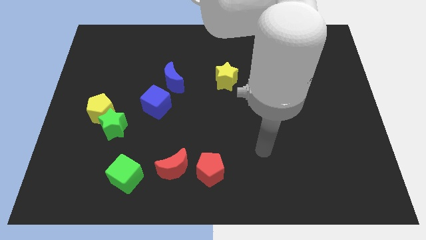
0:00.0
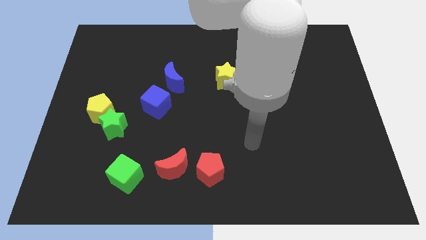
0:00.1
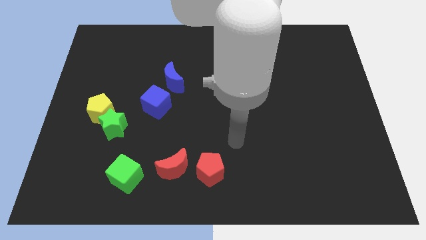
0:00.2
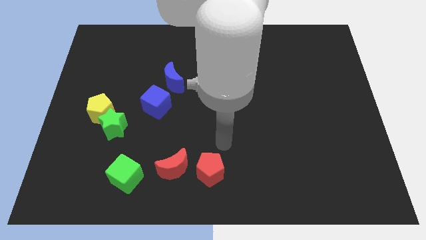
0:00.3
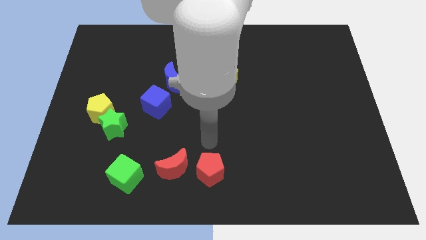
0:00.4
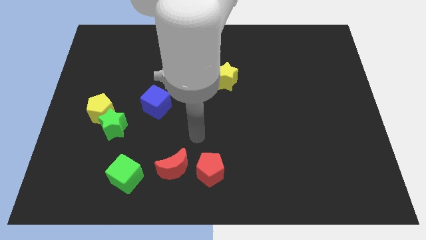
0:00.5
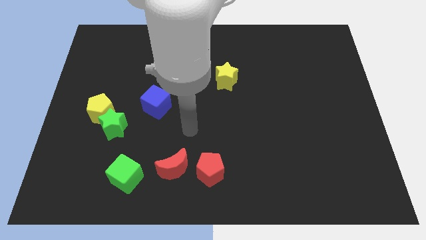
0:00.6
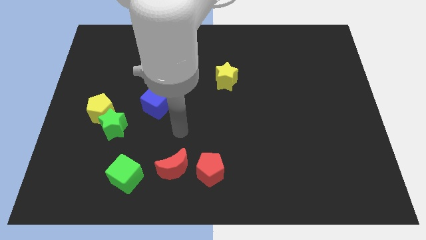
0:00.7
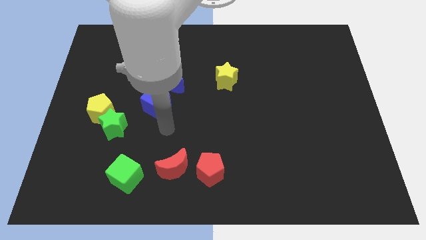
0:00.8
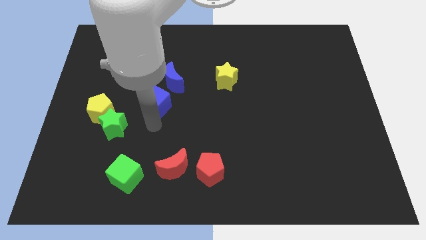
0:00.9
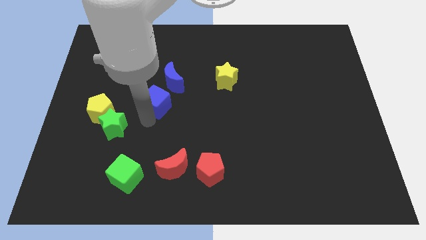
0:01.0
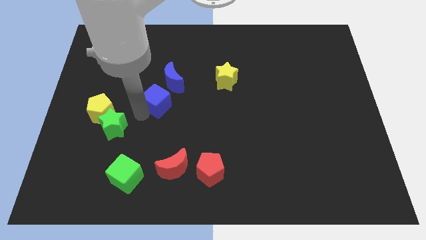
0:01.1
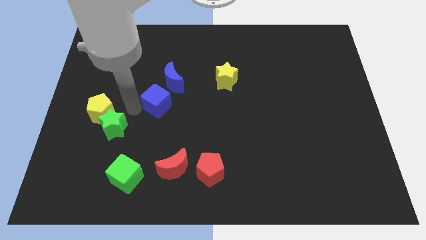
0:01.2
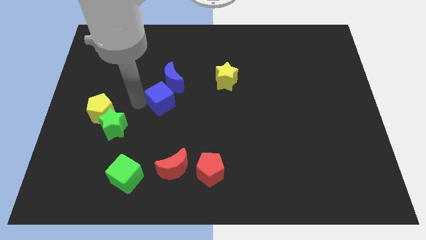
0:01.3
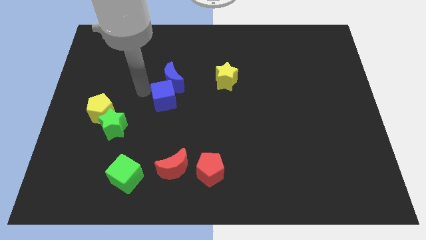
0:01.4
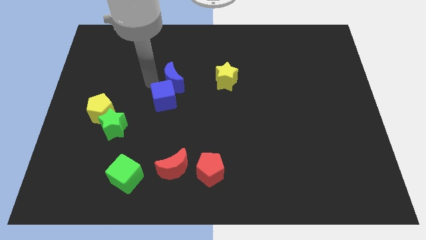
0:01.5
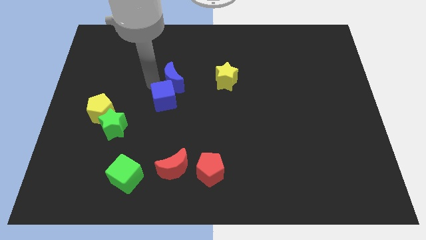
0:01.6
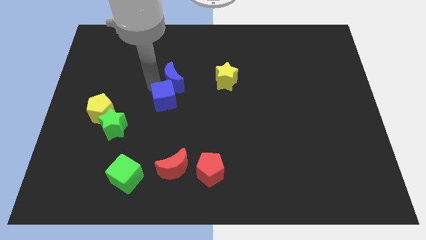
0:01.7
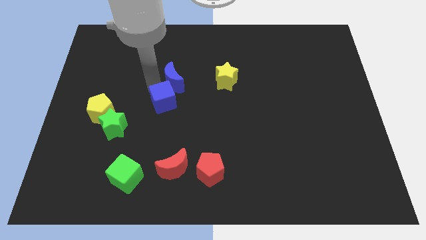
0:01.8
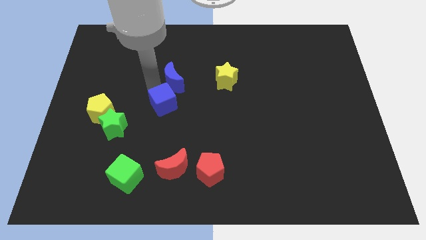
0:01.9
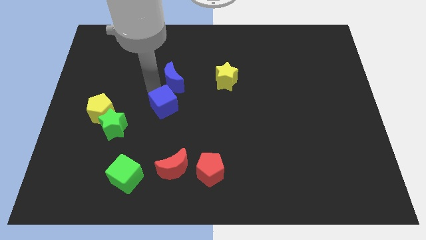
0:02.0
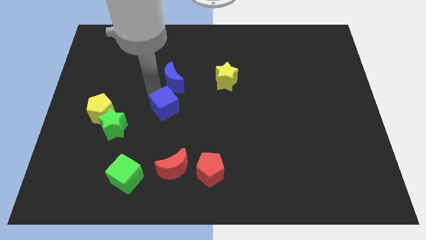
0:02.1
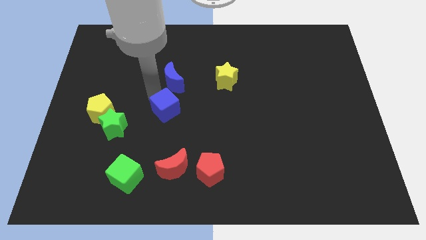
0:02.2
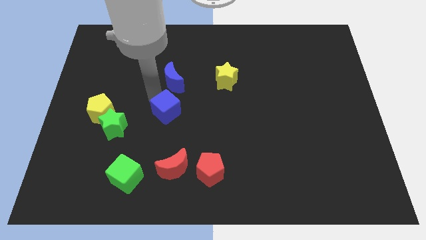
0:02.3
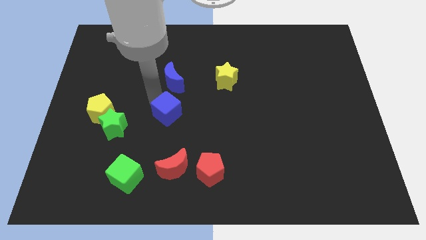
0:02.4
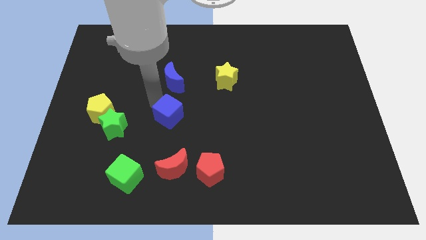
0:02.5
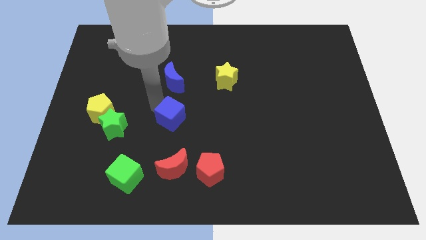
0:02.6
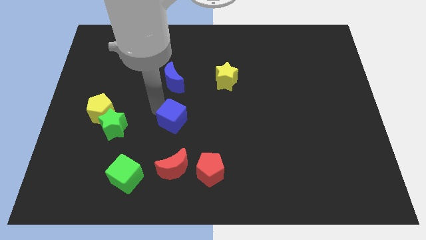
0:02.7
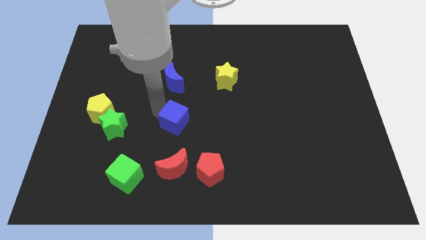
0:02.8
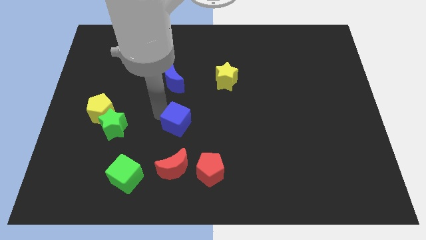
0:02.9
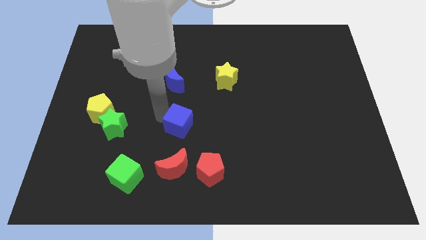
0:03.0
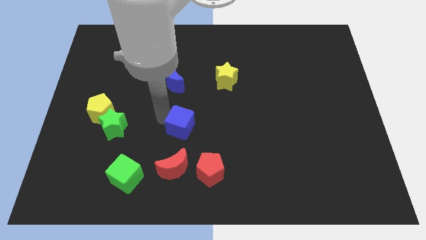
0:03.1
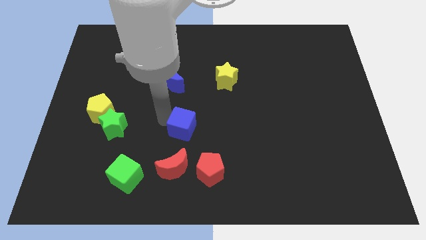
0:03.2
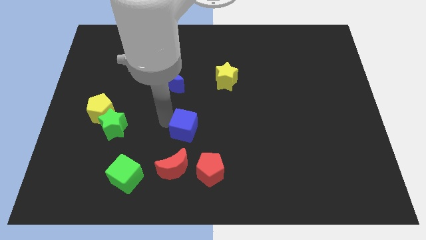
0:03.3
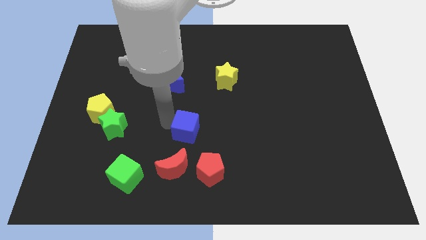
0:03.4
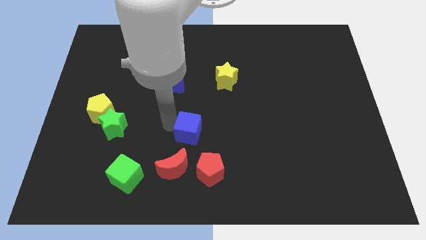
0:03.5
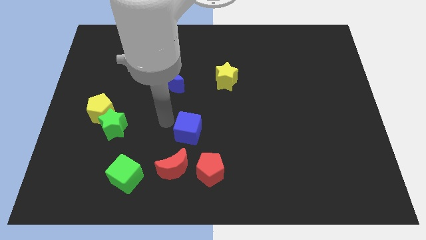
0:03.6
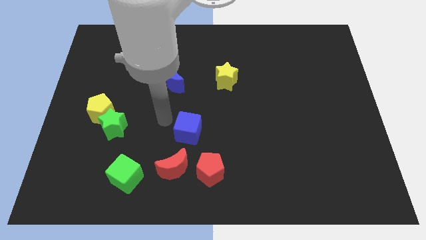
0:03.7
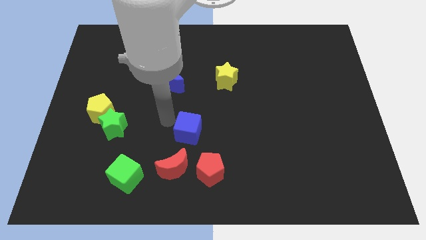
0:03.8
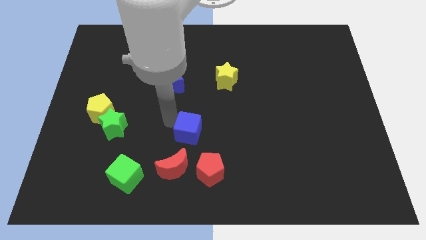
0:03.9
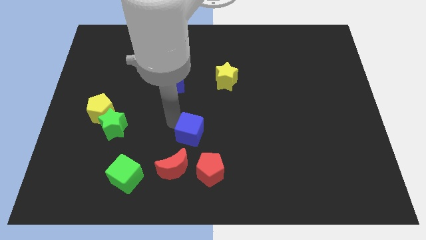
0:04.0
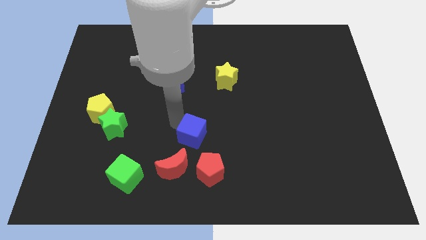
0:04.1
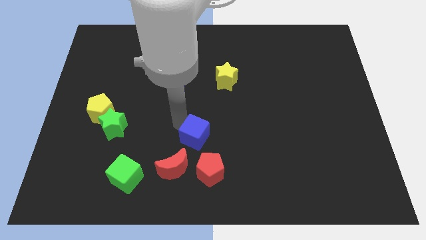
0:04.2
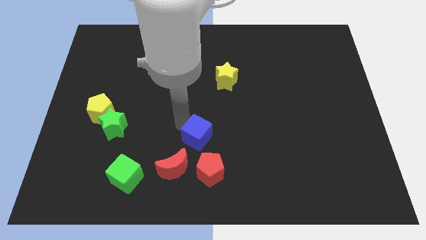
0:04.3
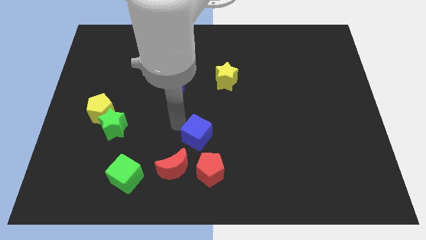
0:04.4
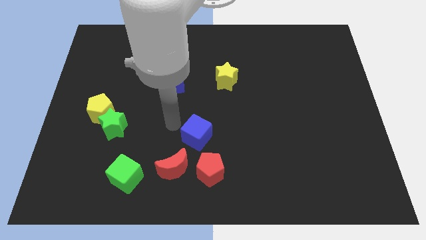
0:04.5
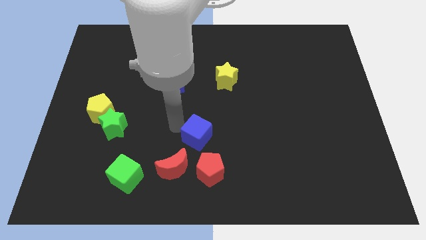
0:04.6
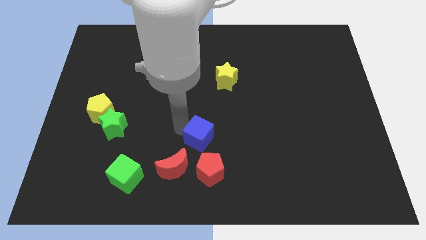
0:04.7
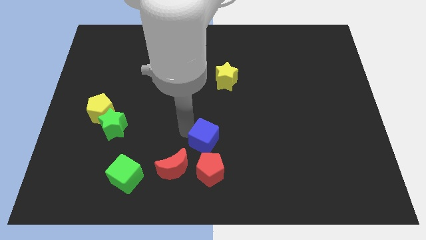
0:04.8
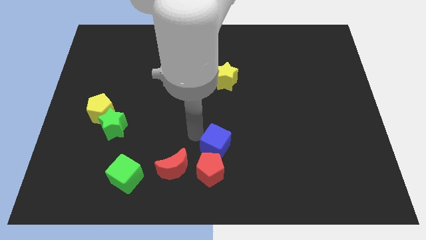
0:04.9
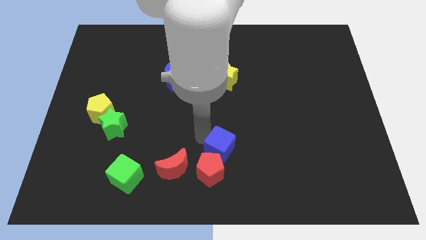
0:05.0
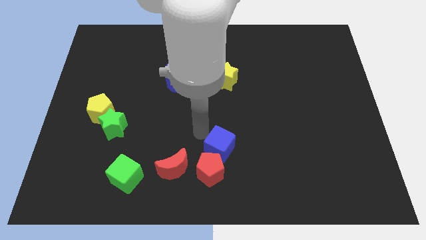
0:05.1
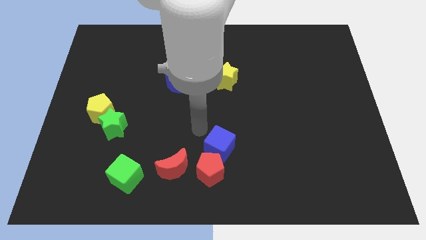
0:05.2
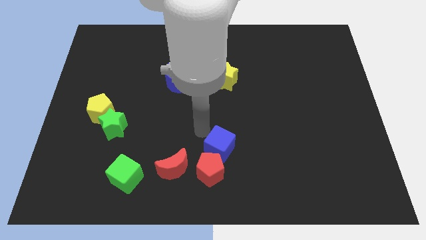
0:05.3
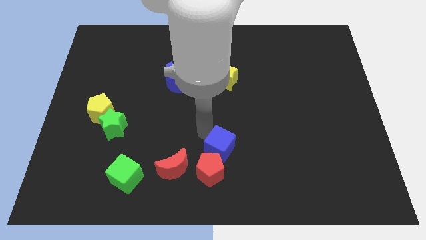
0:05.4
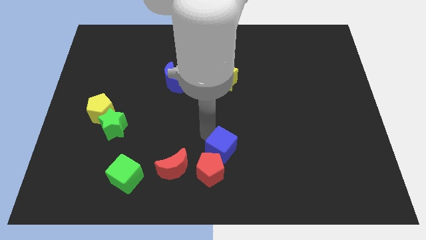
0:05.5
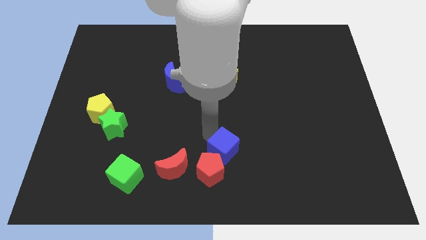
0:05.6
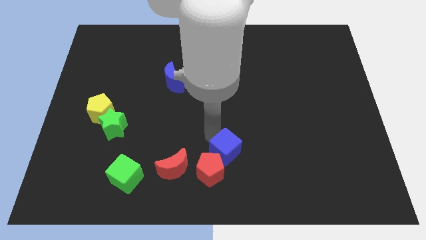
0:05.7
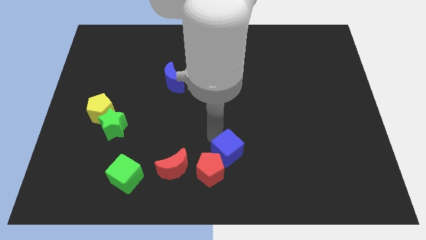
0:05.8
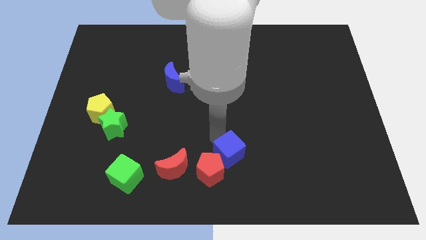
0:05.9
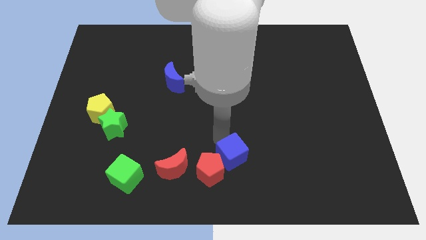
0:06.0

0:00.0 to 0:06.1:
move the blue cube to the bottom side

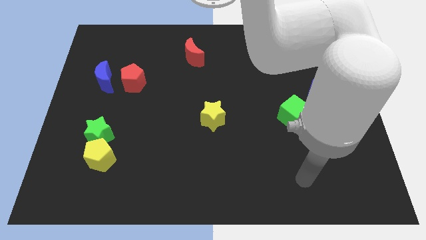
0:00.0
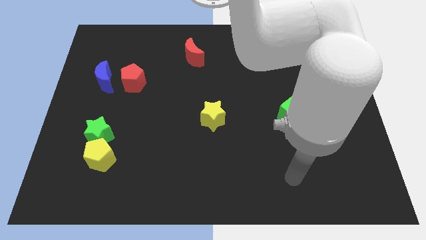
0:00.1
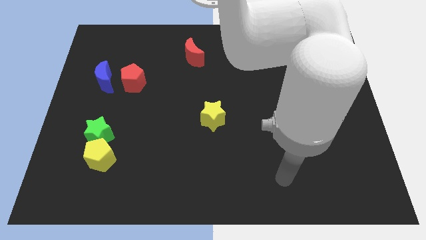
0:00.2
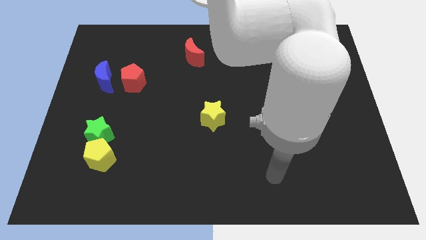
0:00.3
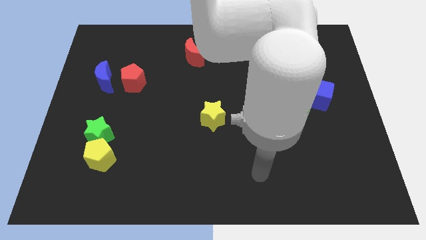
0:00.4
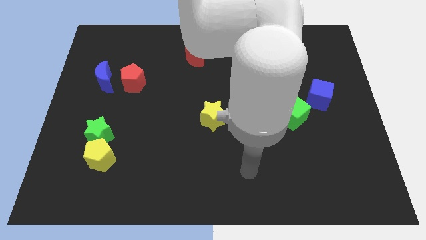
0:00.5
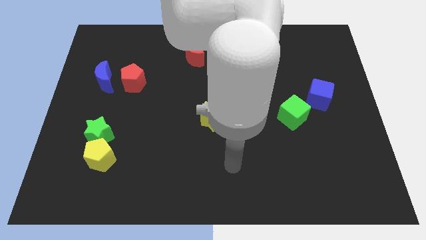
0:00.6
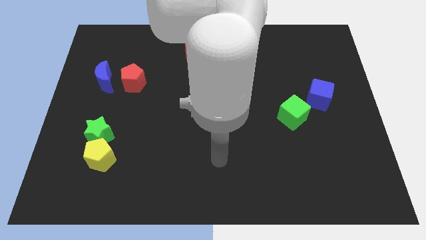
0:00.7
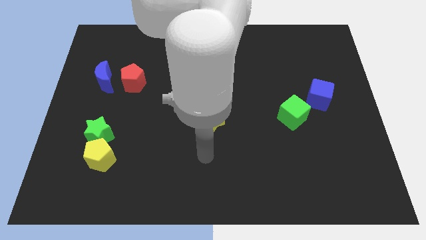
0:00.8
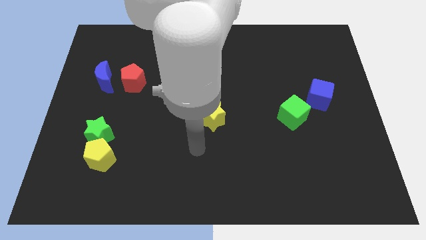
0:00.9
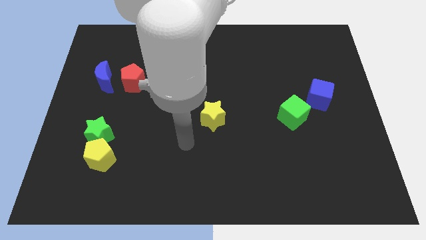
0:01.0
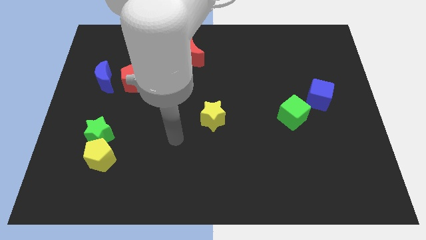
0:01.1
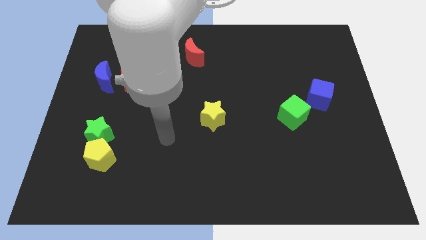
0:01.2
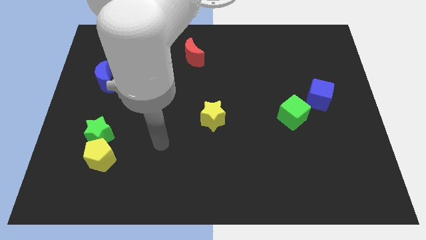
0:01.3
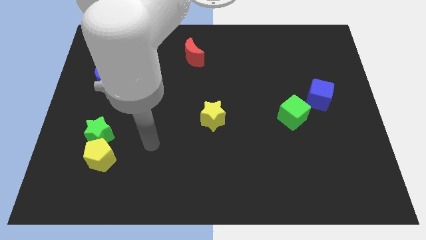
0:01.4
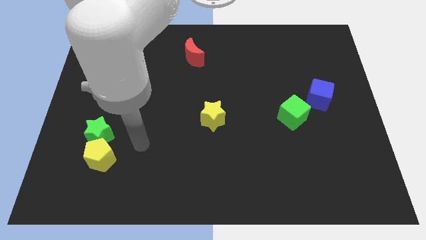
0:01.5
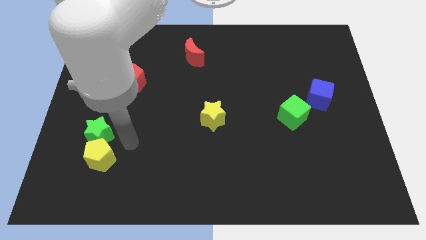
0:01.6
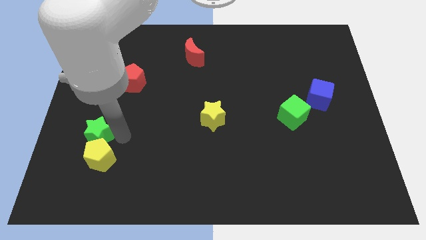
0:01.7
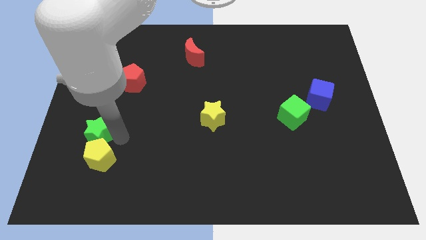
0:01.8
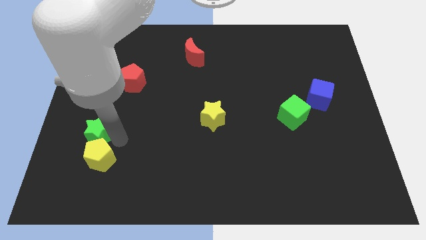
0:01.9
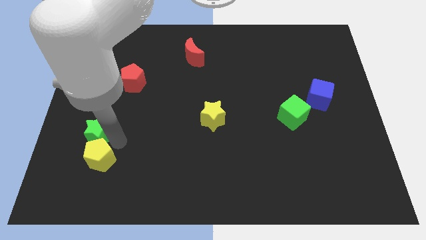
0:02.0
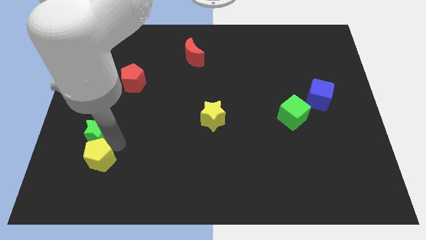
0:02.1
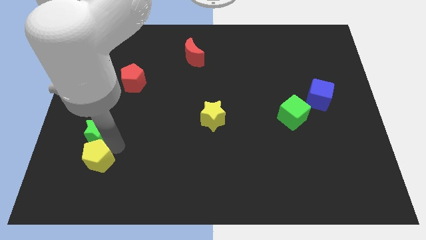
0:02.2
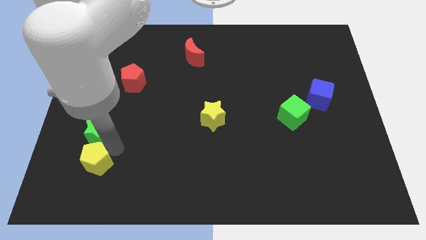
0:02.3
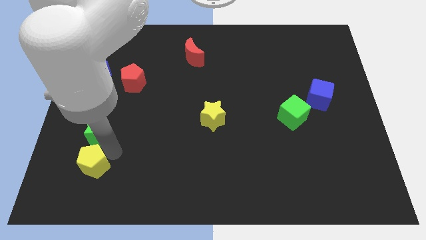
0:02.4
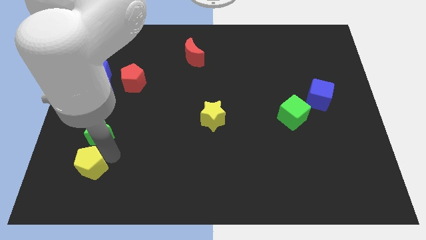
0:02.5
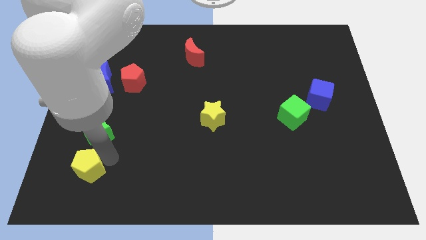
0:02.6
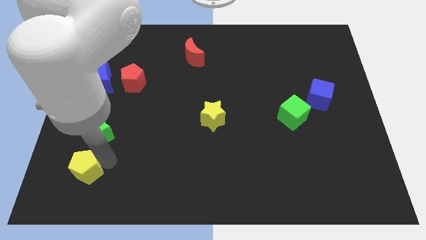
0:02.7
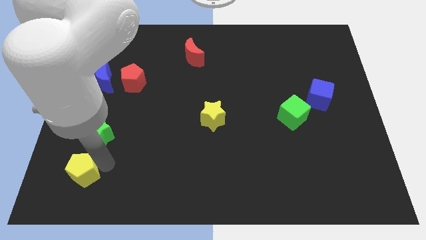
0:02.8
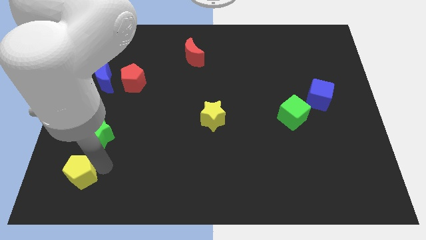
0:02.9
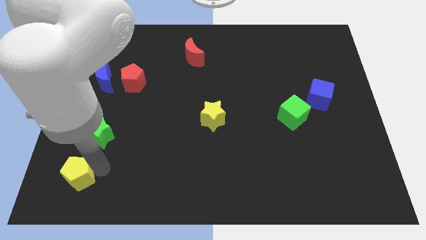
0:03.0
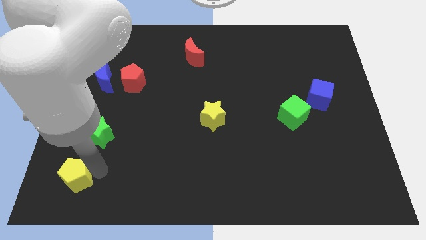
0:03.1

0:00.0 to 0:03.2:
push the yellow pentagon to the bottom left corner
